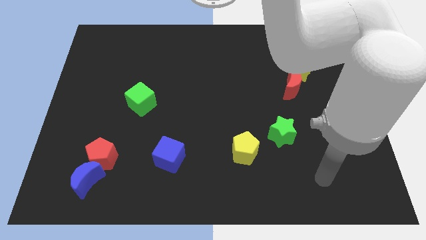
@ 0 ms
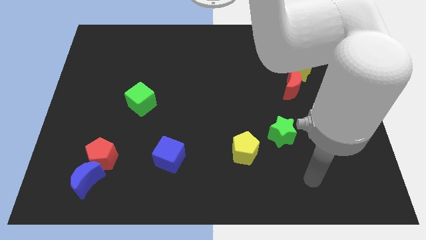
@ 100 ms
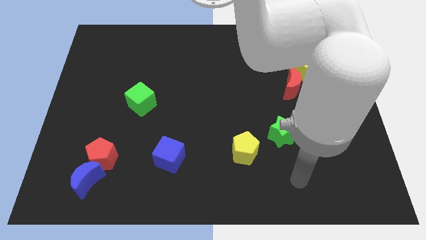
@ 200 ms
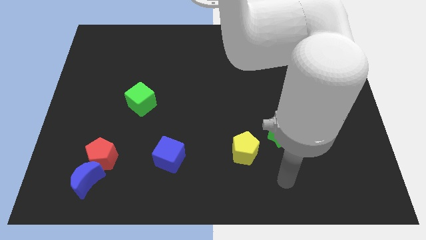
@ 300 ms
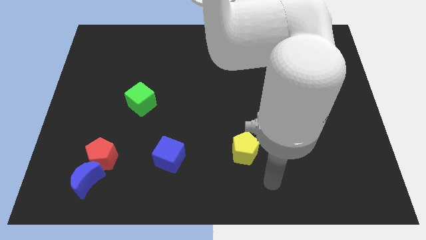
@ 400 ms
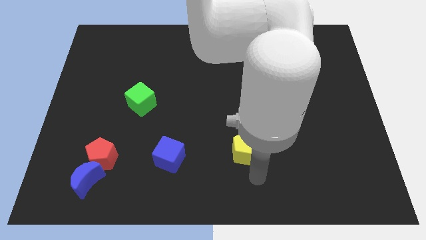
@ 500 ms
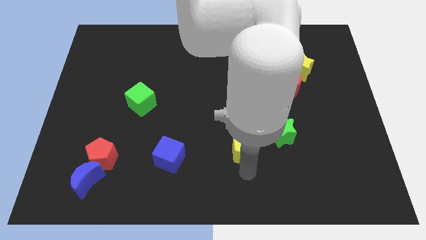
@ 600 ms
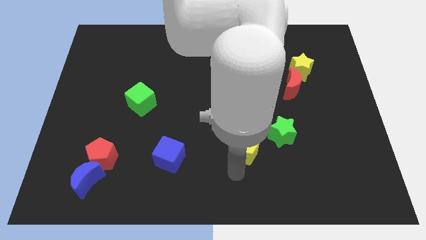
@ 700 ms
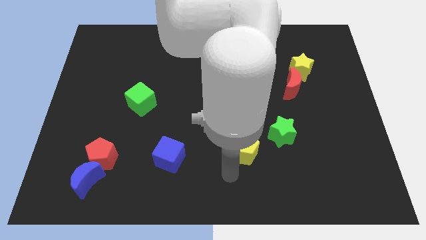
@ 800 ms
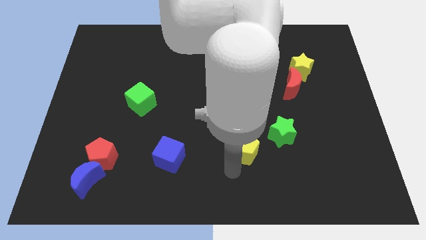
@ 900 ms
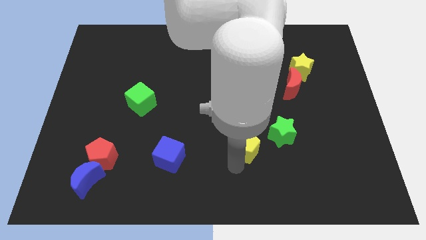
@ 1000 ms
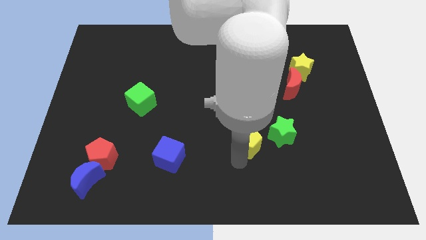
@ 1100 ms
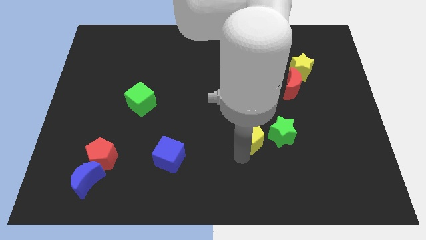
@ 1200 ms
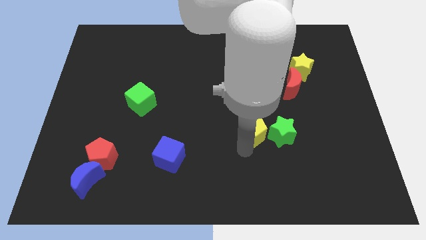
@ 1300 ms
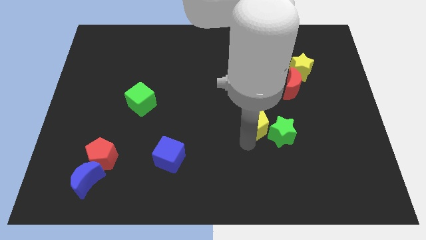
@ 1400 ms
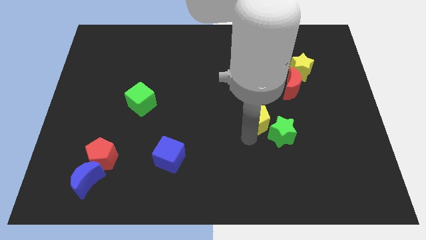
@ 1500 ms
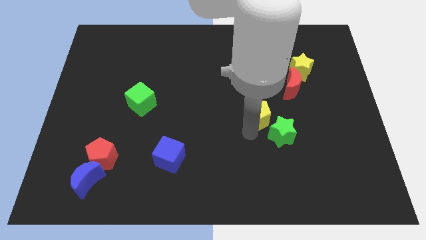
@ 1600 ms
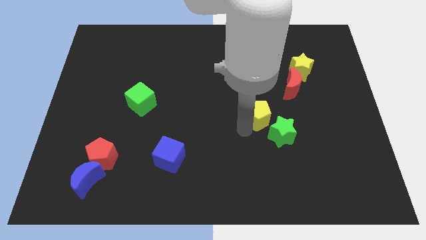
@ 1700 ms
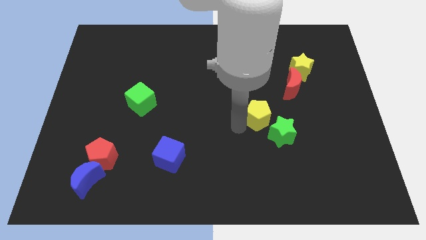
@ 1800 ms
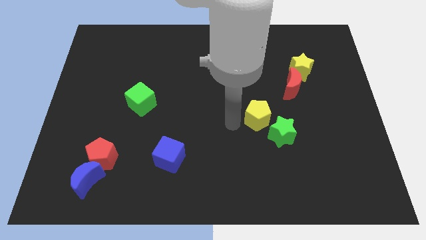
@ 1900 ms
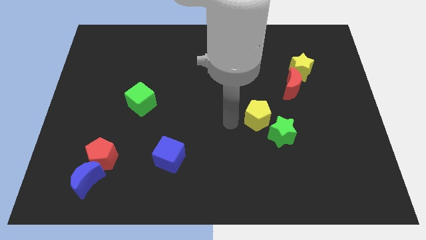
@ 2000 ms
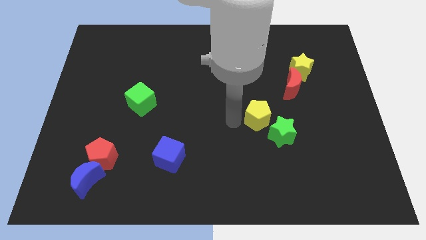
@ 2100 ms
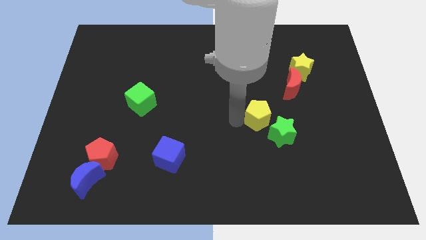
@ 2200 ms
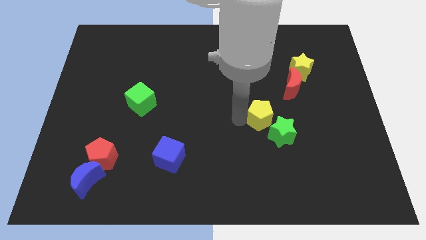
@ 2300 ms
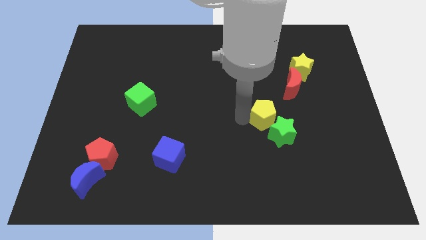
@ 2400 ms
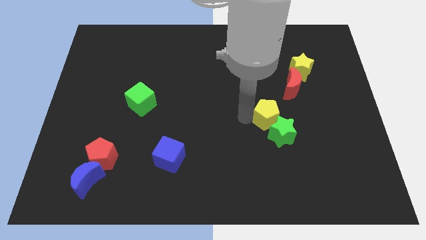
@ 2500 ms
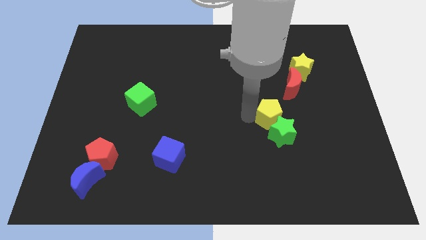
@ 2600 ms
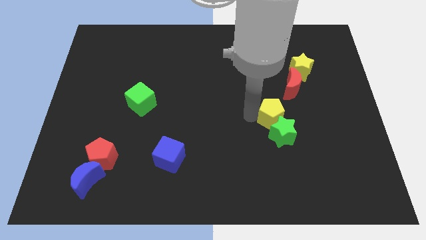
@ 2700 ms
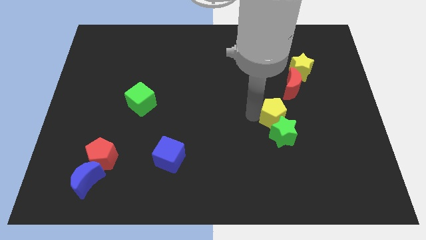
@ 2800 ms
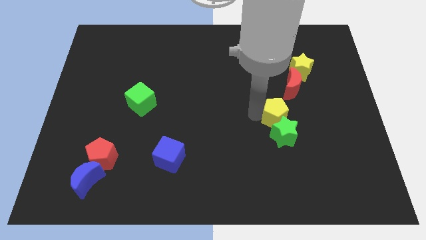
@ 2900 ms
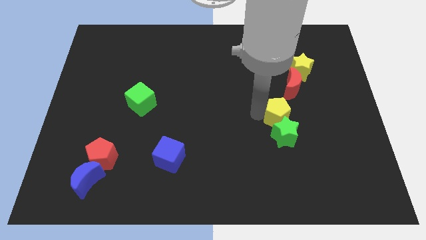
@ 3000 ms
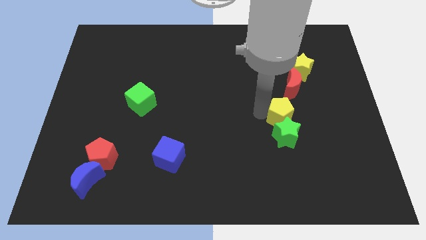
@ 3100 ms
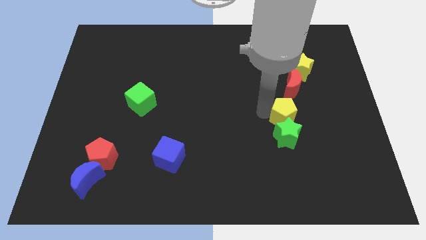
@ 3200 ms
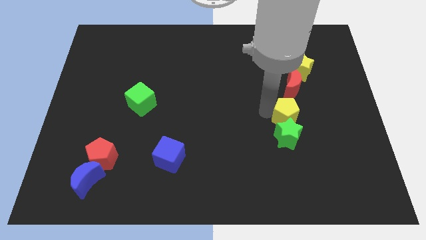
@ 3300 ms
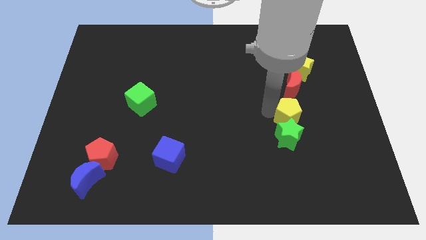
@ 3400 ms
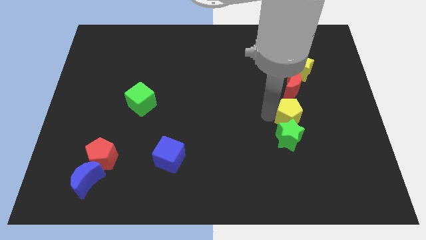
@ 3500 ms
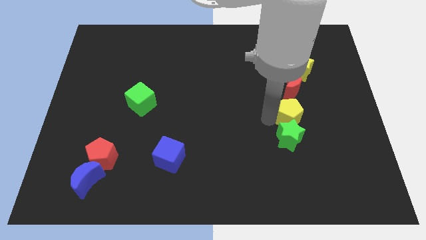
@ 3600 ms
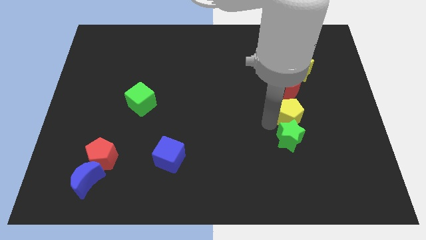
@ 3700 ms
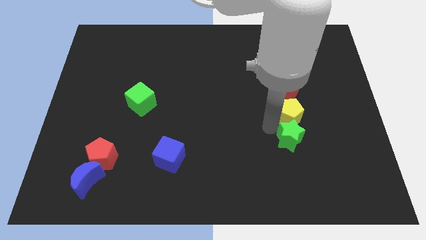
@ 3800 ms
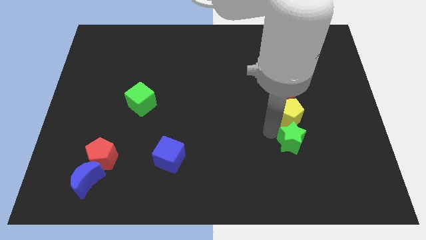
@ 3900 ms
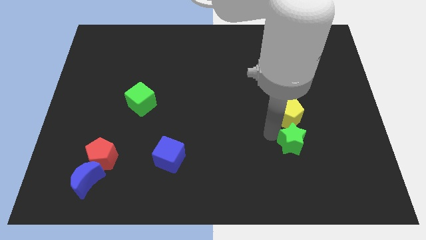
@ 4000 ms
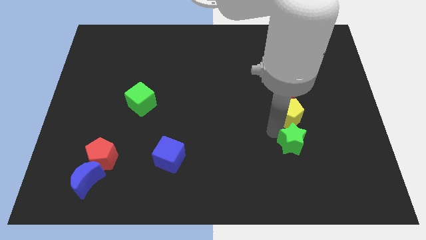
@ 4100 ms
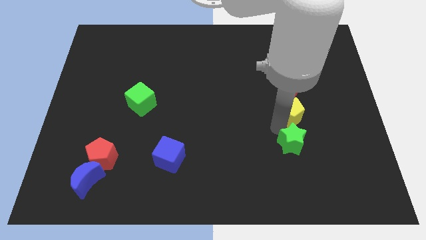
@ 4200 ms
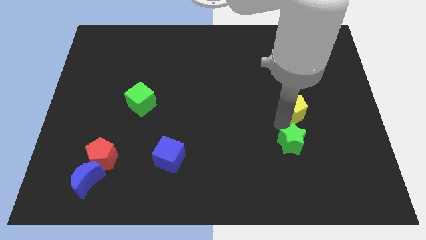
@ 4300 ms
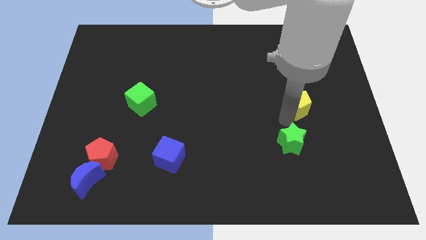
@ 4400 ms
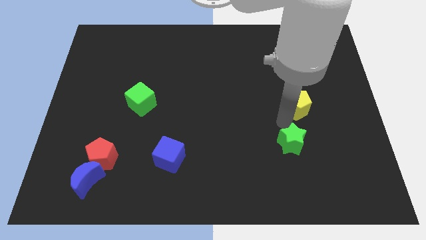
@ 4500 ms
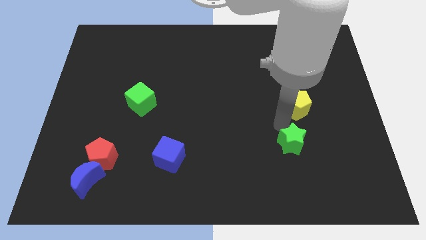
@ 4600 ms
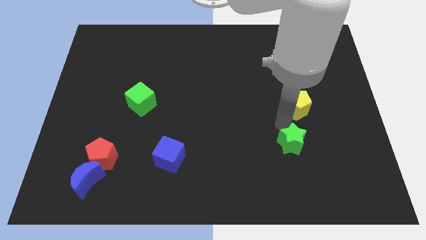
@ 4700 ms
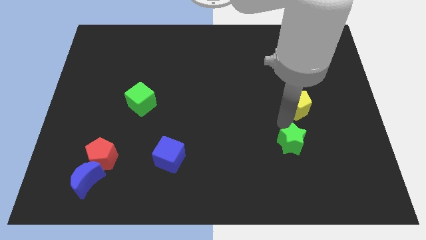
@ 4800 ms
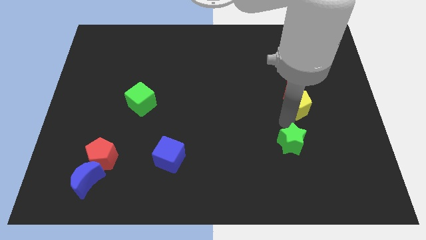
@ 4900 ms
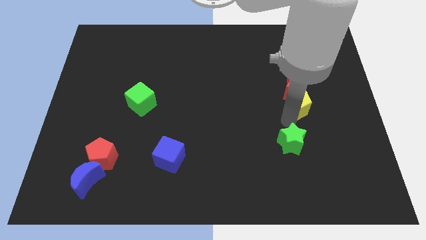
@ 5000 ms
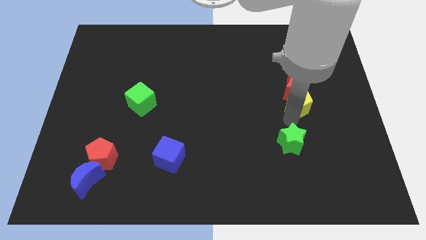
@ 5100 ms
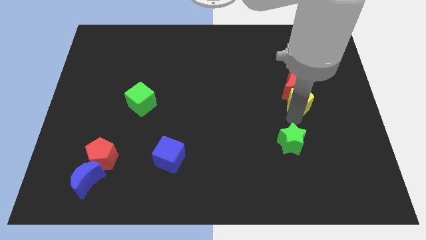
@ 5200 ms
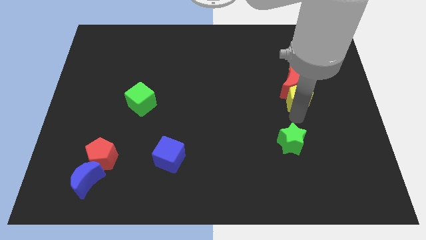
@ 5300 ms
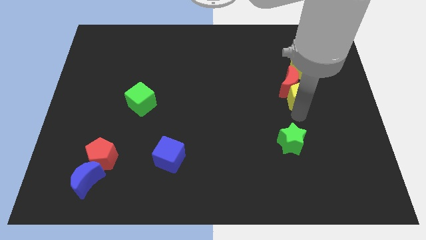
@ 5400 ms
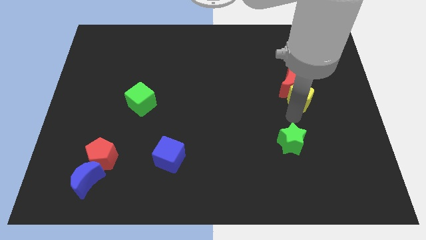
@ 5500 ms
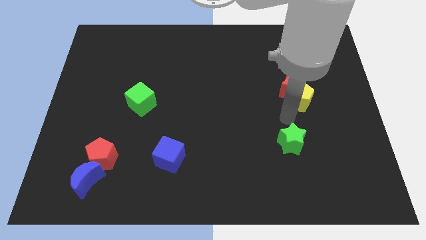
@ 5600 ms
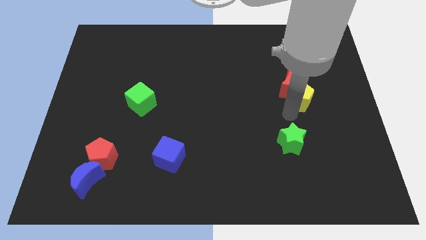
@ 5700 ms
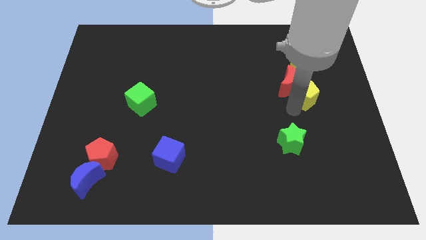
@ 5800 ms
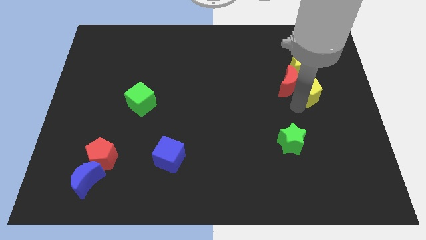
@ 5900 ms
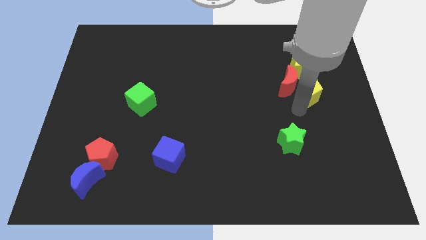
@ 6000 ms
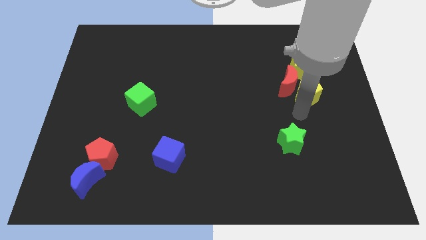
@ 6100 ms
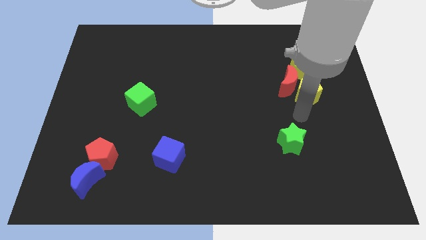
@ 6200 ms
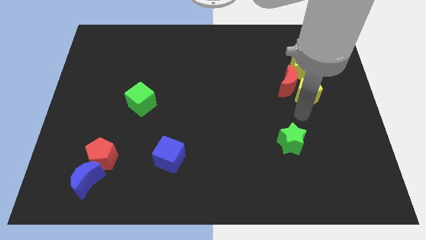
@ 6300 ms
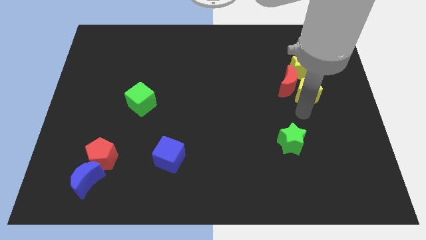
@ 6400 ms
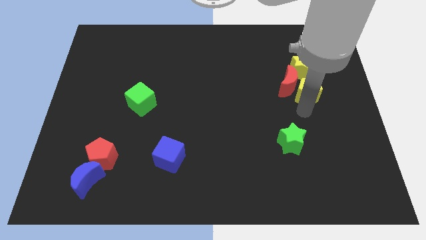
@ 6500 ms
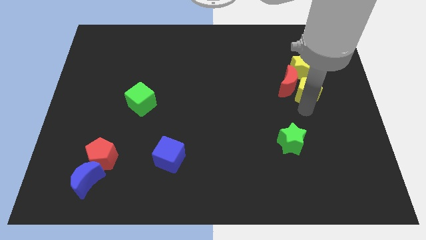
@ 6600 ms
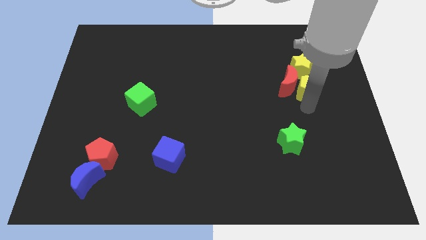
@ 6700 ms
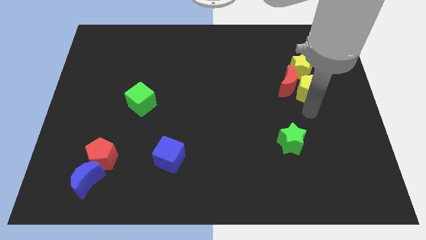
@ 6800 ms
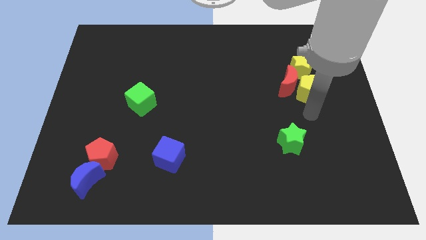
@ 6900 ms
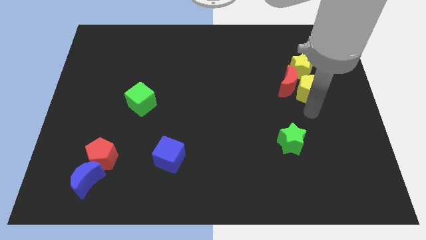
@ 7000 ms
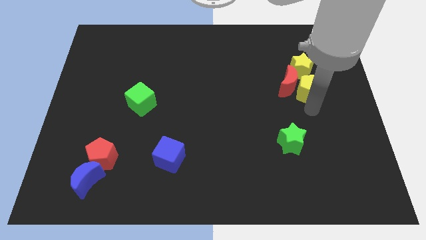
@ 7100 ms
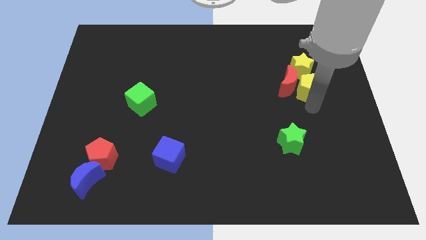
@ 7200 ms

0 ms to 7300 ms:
put the yellow pentagon to the top right side of the red moon
